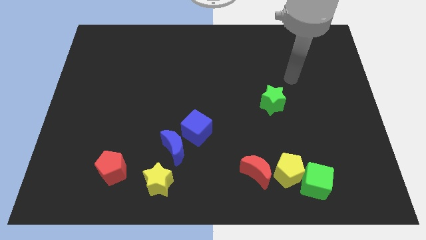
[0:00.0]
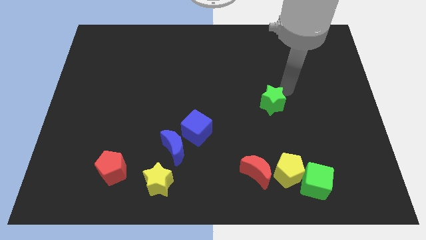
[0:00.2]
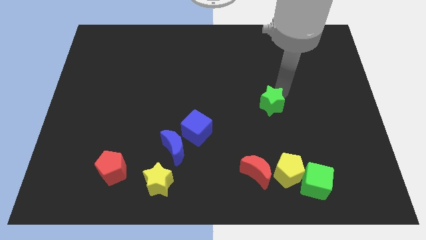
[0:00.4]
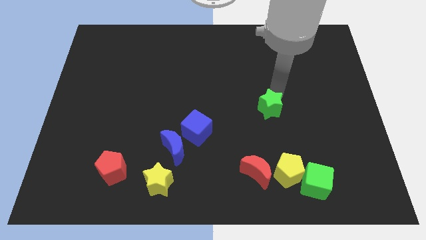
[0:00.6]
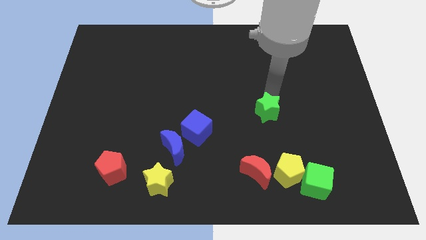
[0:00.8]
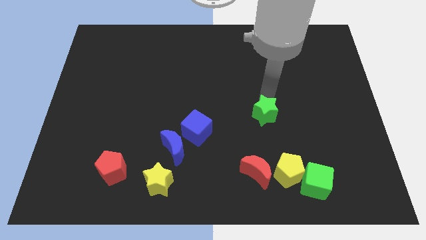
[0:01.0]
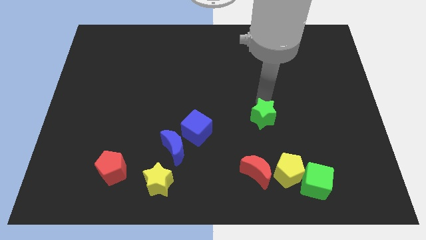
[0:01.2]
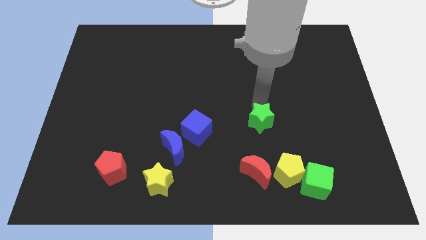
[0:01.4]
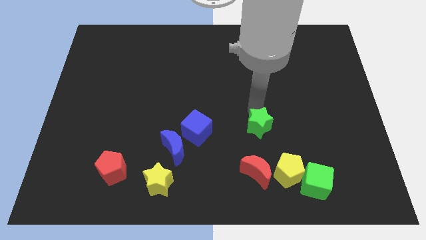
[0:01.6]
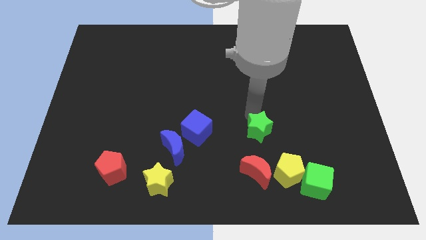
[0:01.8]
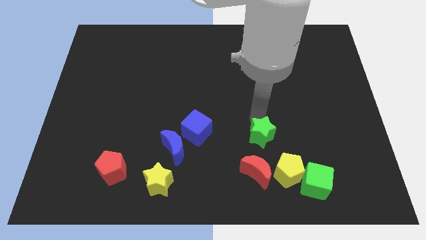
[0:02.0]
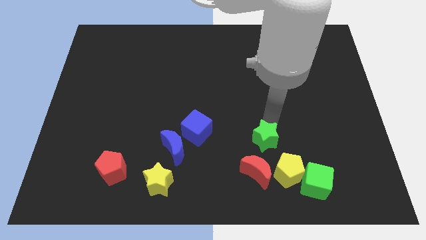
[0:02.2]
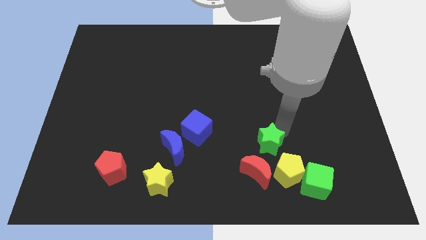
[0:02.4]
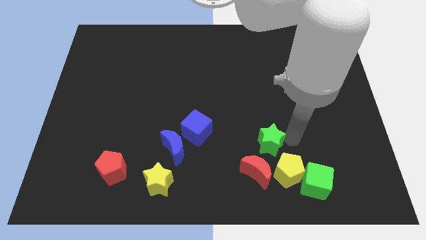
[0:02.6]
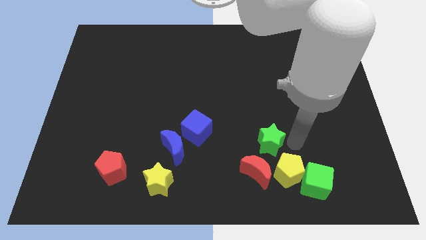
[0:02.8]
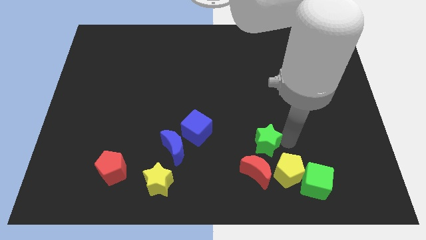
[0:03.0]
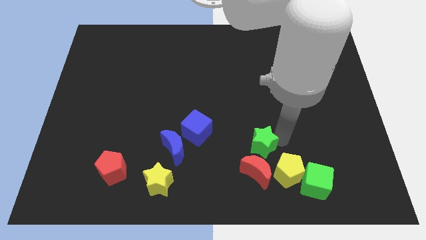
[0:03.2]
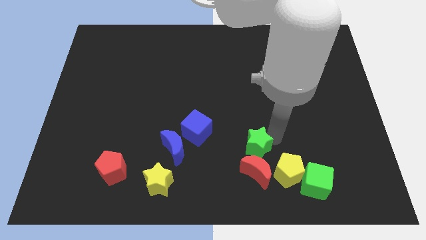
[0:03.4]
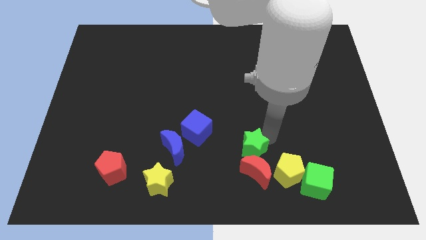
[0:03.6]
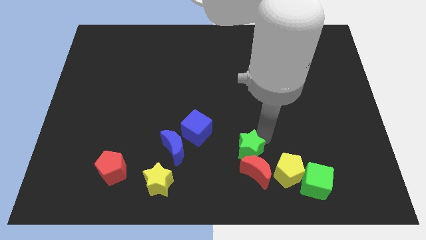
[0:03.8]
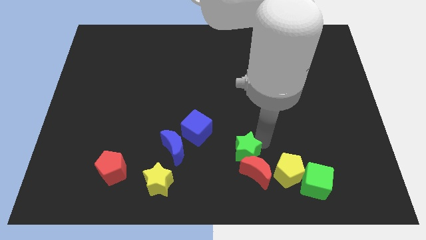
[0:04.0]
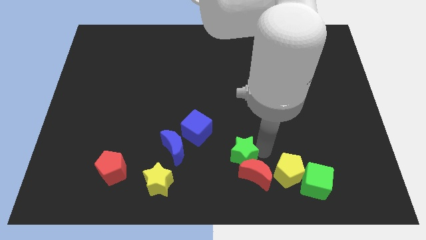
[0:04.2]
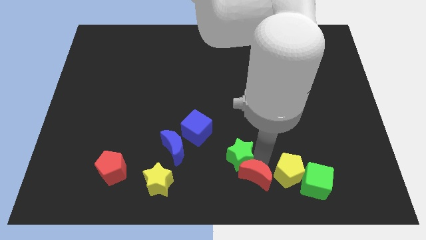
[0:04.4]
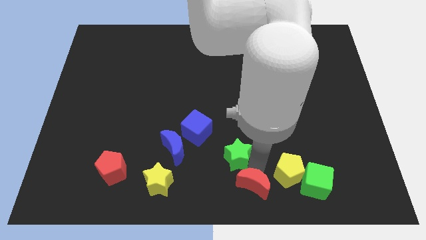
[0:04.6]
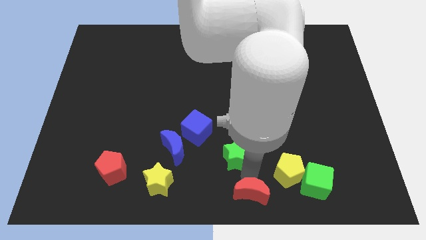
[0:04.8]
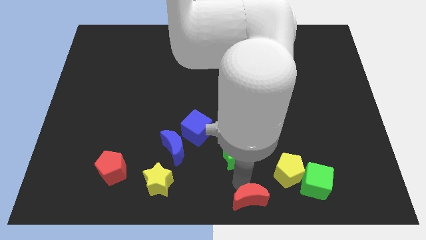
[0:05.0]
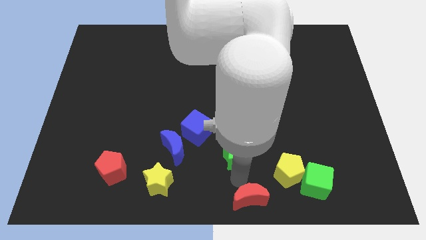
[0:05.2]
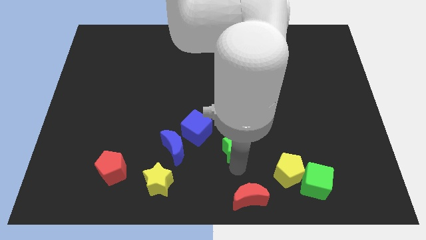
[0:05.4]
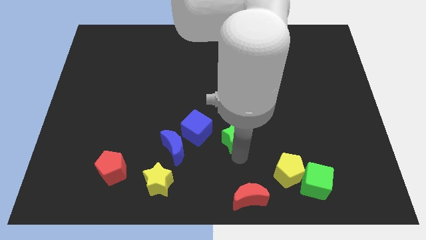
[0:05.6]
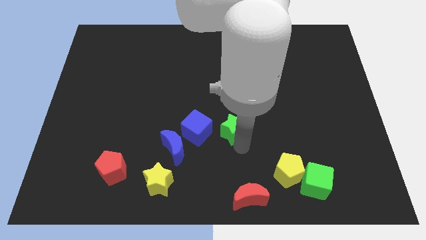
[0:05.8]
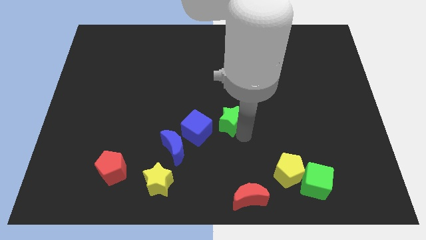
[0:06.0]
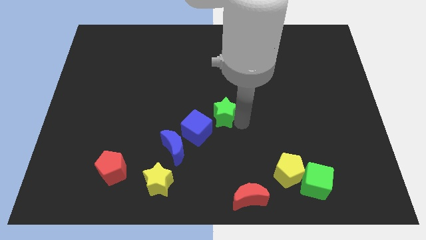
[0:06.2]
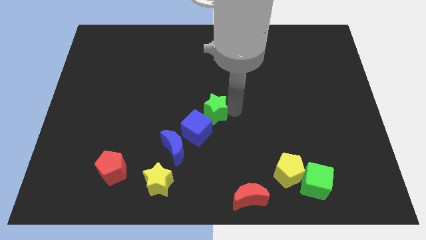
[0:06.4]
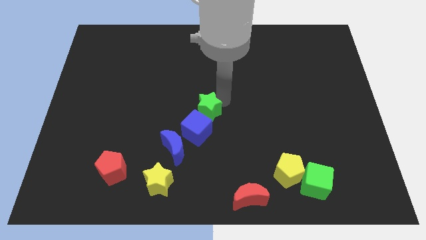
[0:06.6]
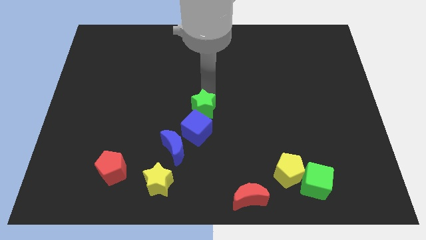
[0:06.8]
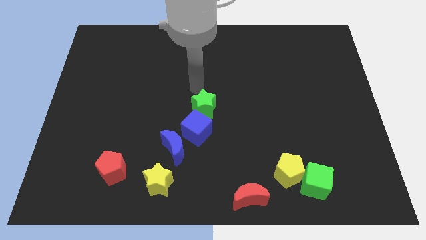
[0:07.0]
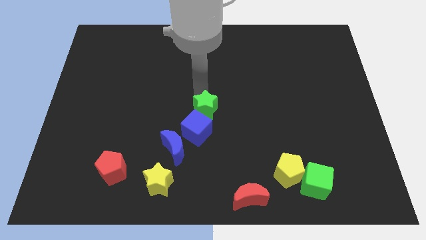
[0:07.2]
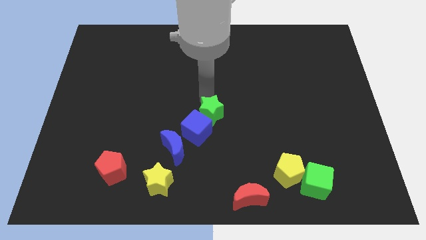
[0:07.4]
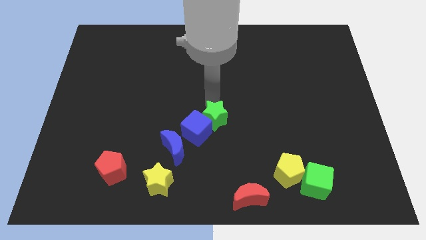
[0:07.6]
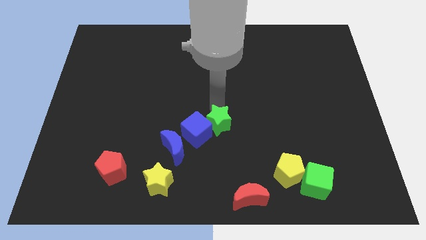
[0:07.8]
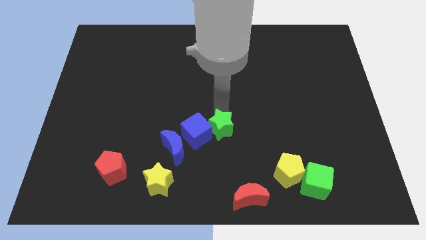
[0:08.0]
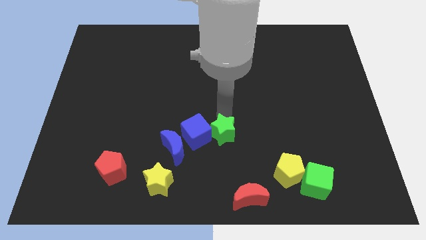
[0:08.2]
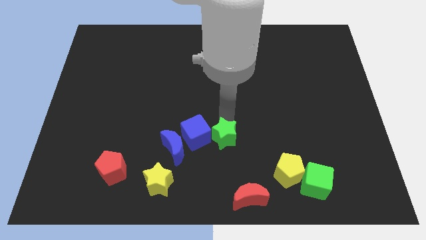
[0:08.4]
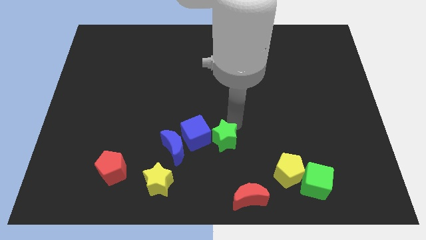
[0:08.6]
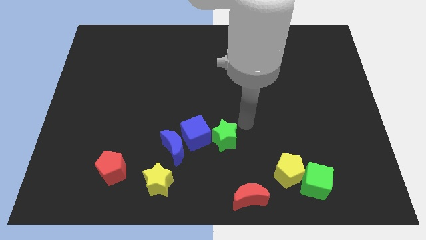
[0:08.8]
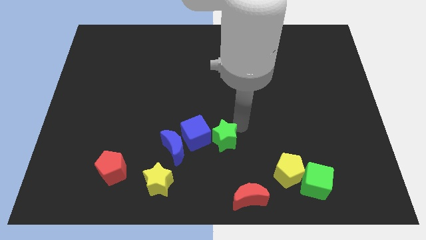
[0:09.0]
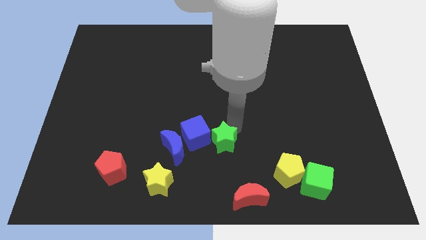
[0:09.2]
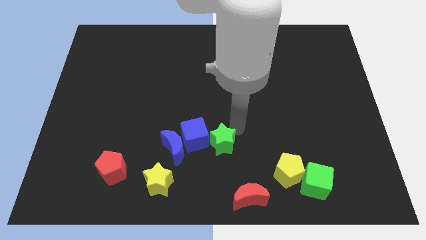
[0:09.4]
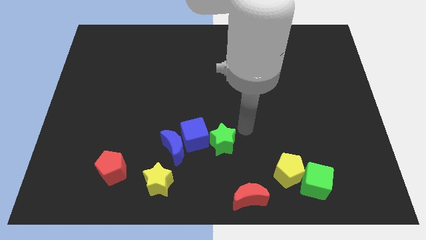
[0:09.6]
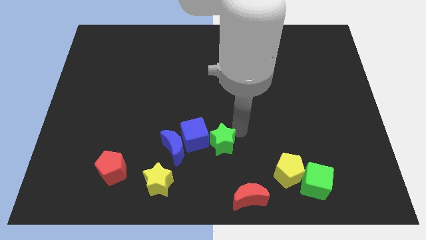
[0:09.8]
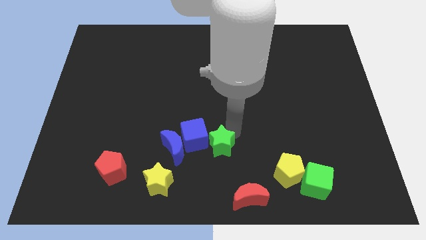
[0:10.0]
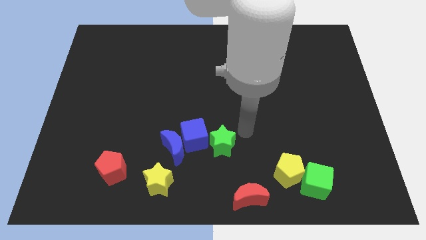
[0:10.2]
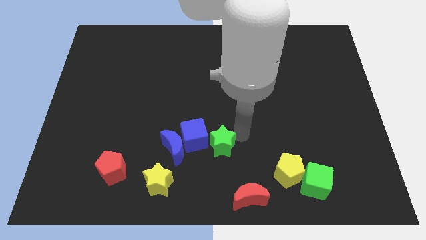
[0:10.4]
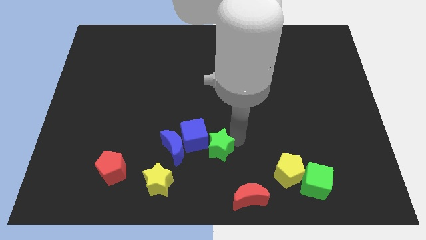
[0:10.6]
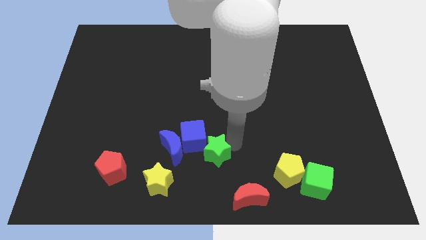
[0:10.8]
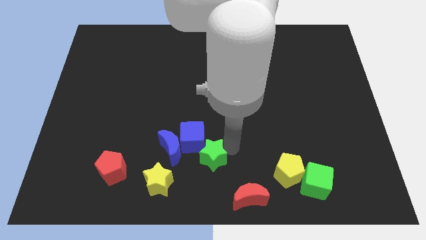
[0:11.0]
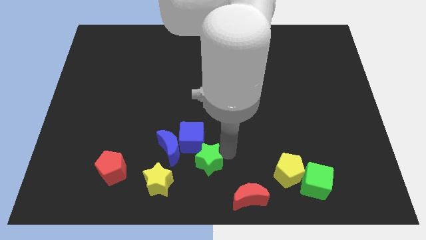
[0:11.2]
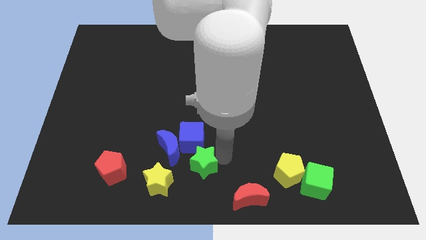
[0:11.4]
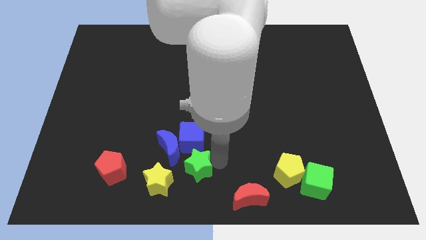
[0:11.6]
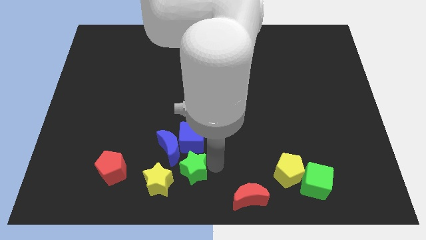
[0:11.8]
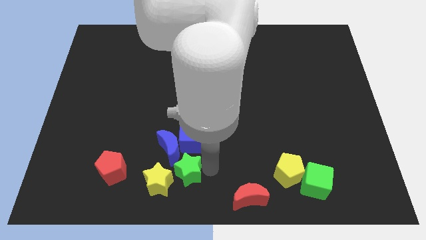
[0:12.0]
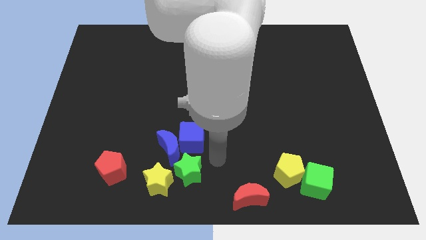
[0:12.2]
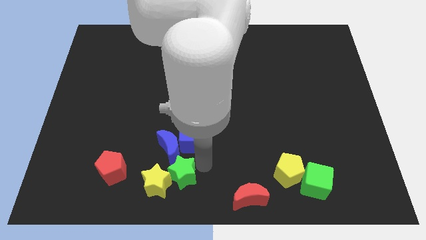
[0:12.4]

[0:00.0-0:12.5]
push the green star to the yellow star
